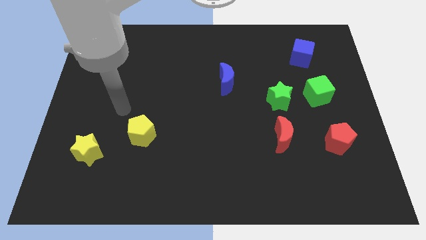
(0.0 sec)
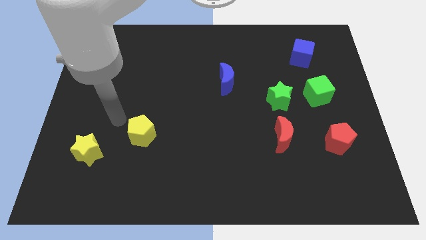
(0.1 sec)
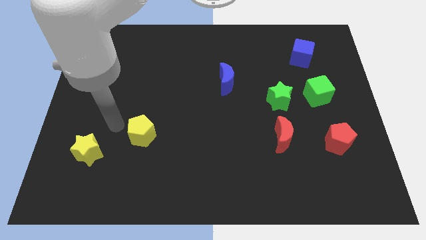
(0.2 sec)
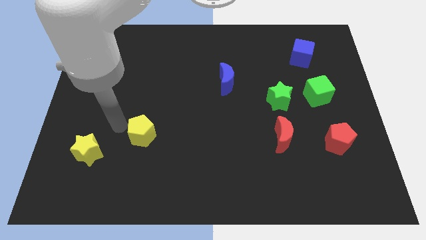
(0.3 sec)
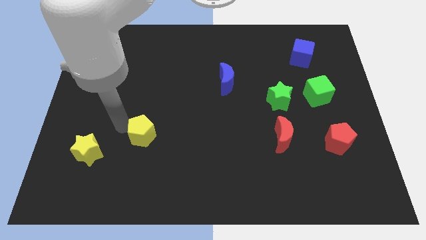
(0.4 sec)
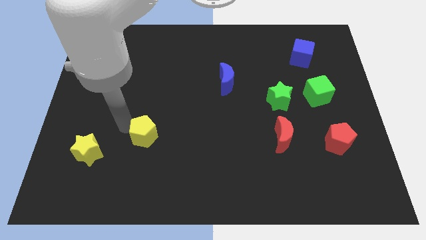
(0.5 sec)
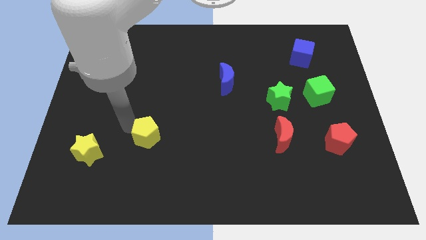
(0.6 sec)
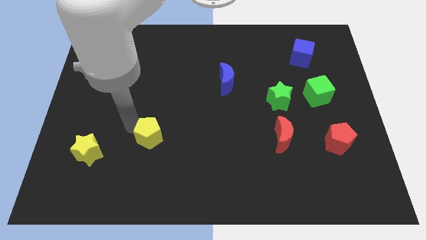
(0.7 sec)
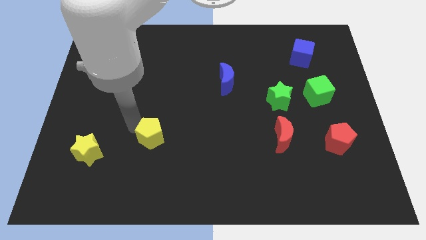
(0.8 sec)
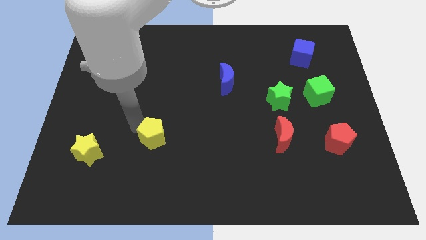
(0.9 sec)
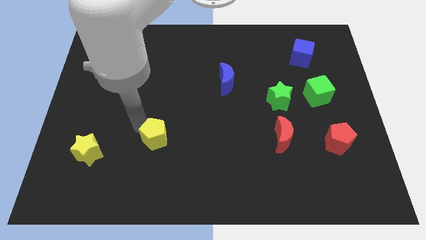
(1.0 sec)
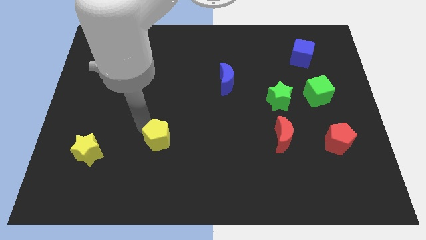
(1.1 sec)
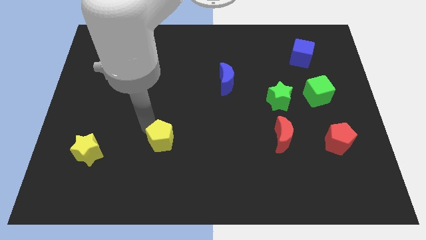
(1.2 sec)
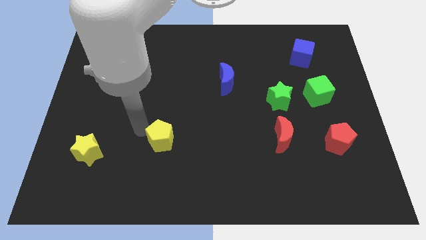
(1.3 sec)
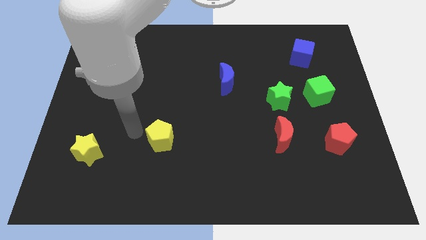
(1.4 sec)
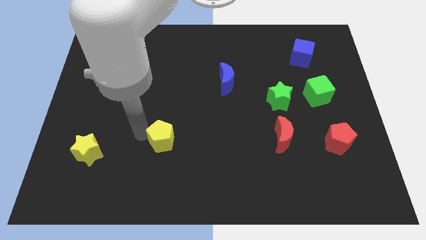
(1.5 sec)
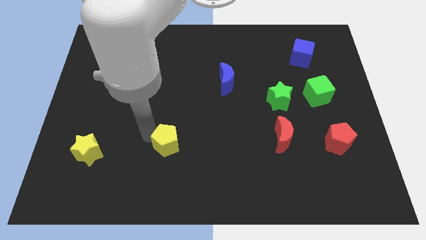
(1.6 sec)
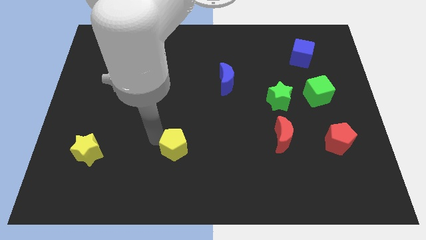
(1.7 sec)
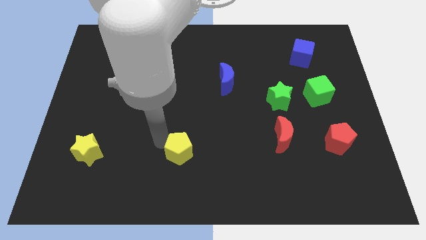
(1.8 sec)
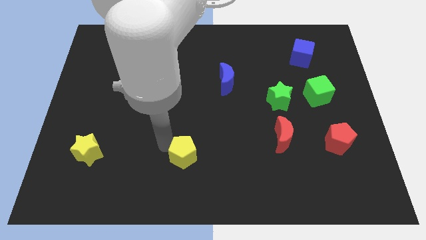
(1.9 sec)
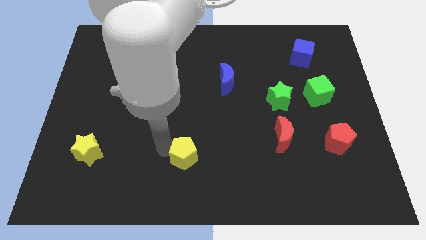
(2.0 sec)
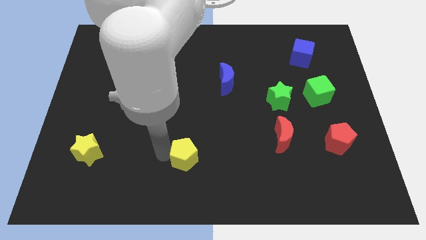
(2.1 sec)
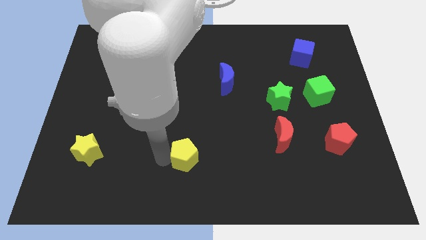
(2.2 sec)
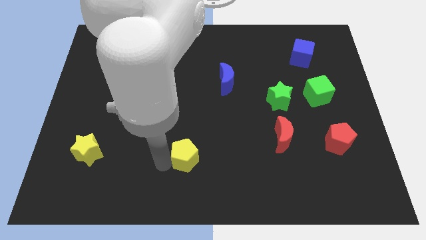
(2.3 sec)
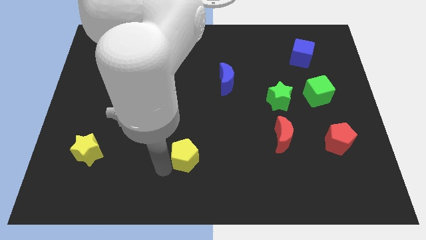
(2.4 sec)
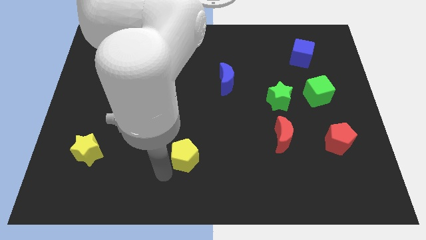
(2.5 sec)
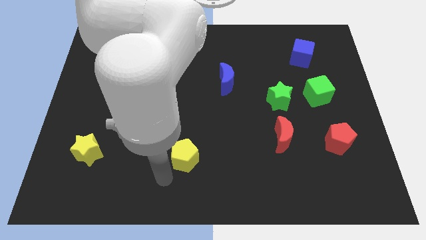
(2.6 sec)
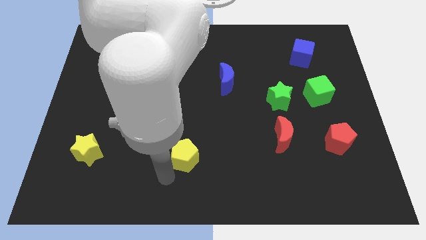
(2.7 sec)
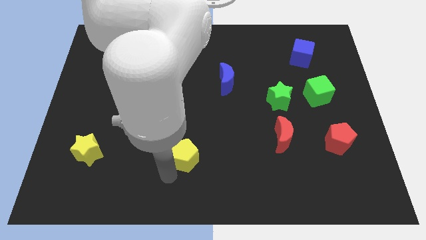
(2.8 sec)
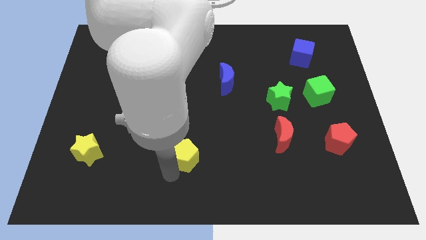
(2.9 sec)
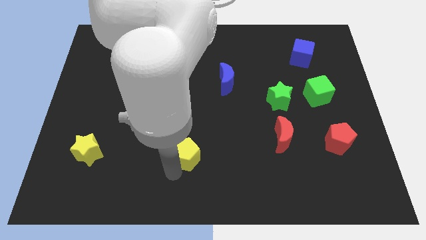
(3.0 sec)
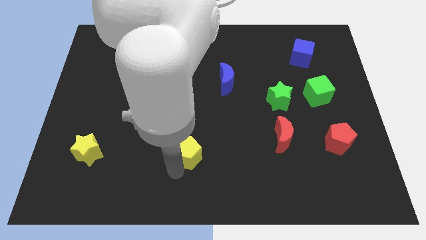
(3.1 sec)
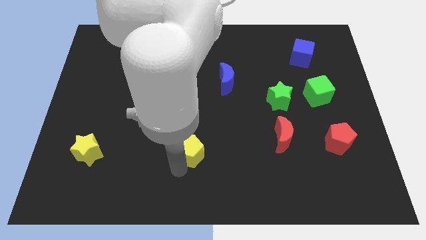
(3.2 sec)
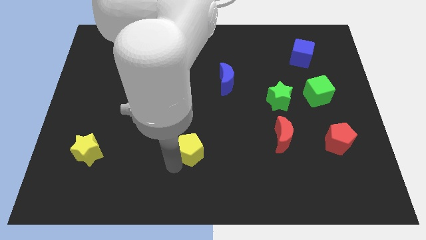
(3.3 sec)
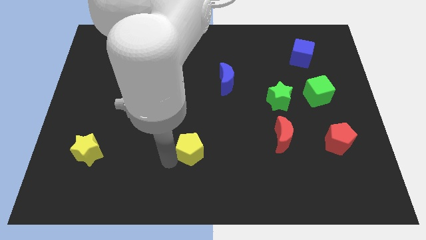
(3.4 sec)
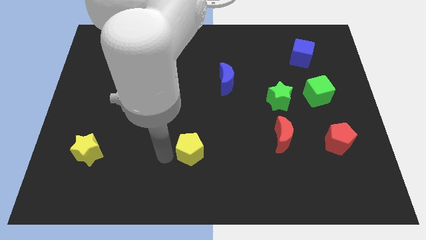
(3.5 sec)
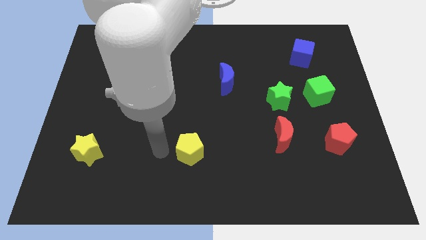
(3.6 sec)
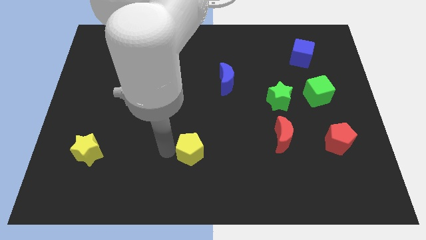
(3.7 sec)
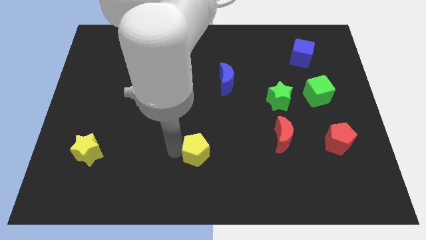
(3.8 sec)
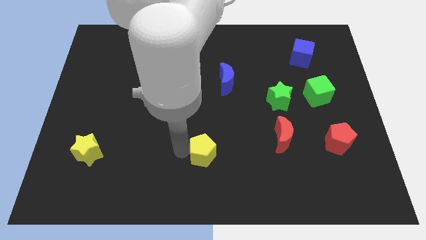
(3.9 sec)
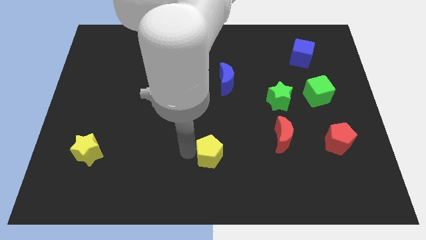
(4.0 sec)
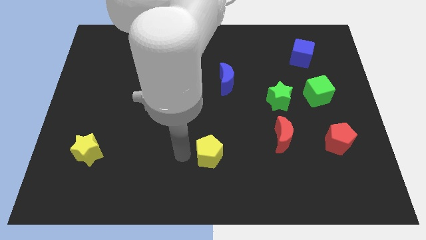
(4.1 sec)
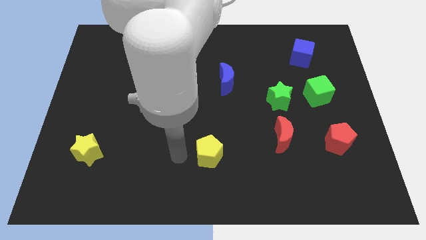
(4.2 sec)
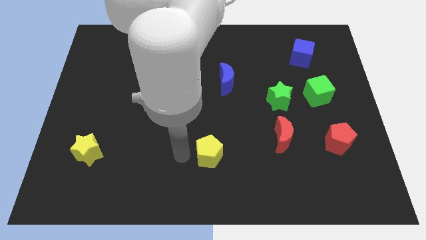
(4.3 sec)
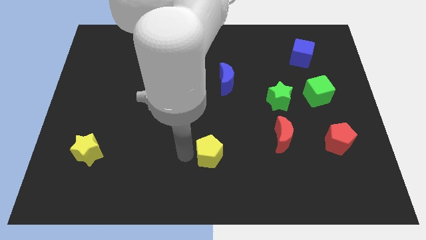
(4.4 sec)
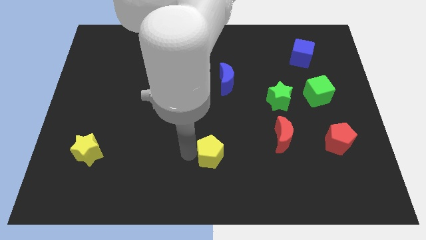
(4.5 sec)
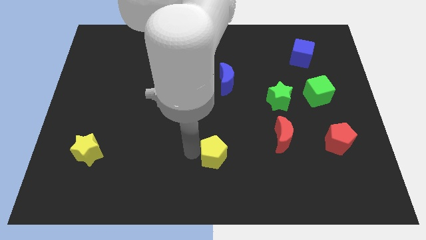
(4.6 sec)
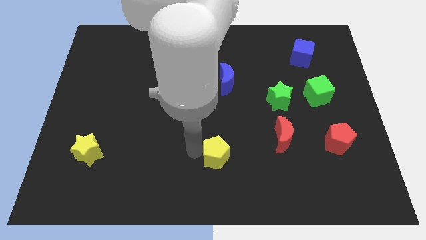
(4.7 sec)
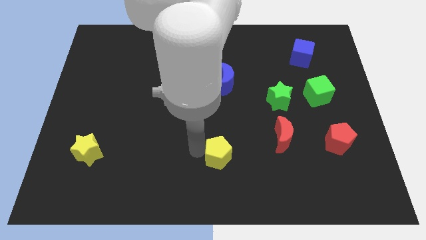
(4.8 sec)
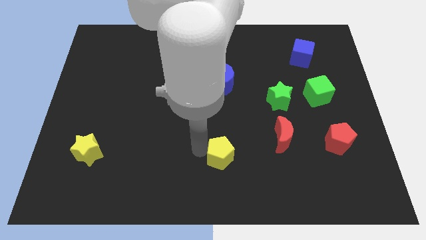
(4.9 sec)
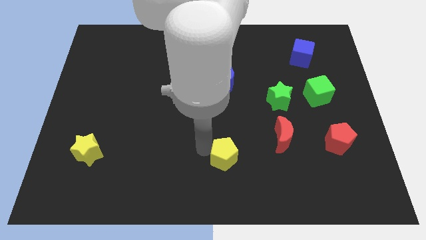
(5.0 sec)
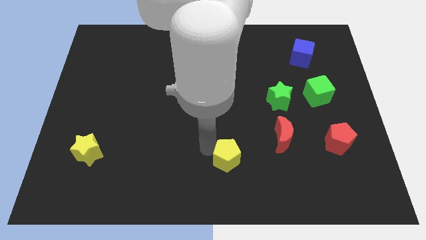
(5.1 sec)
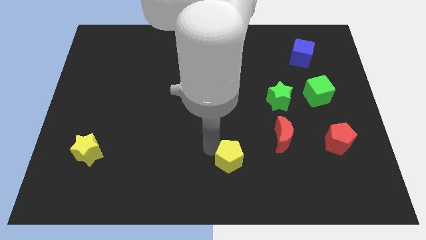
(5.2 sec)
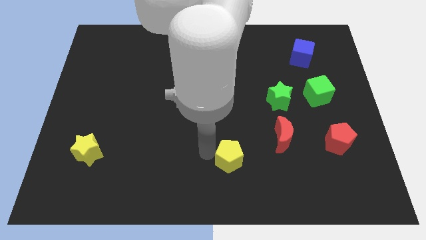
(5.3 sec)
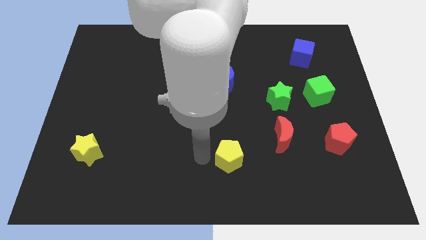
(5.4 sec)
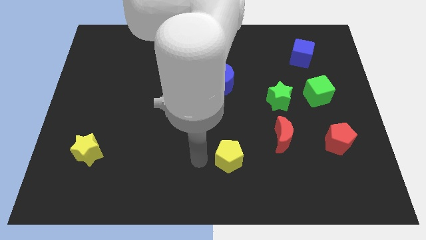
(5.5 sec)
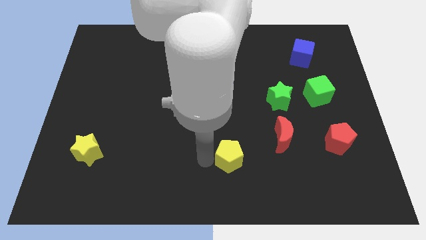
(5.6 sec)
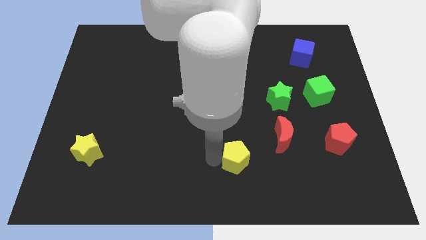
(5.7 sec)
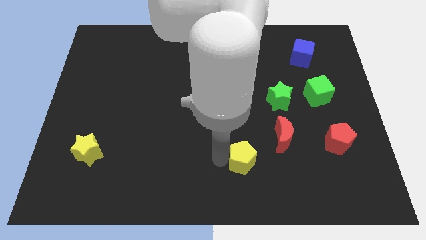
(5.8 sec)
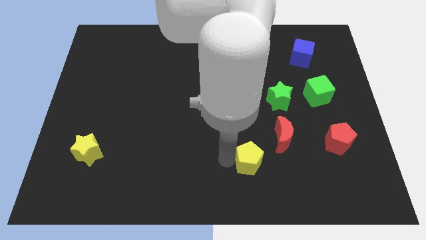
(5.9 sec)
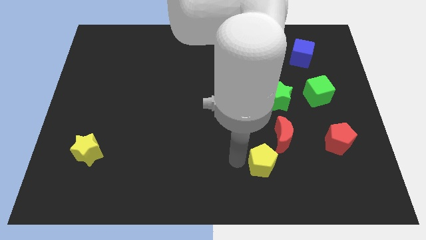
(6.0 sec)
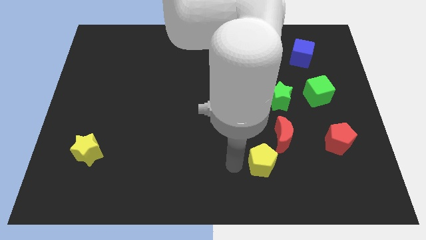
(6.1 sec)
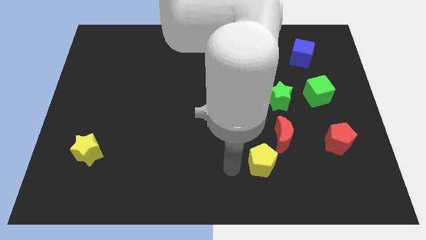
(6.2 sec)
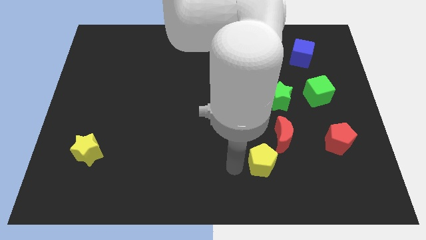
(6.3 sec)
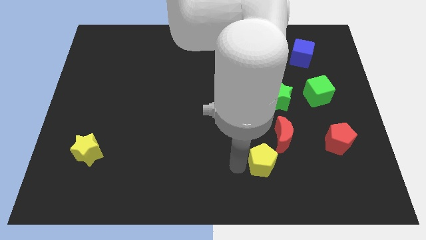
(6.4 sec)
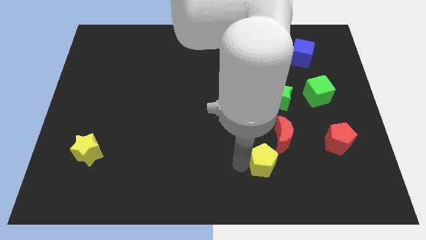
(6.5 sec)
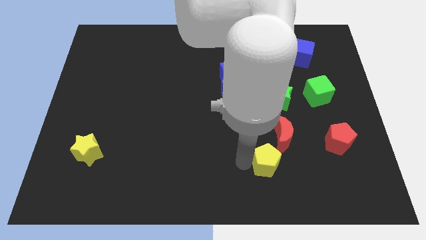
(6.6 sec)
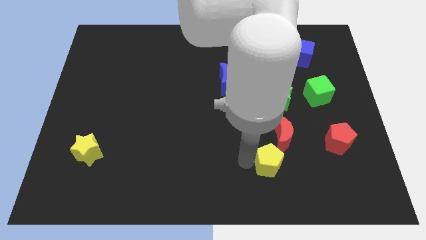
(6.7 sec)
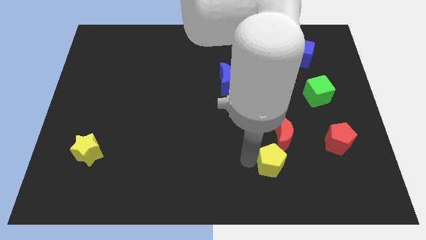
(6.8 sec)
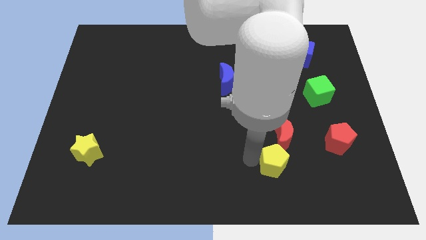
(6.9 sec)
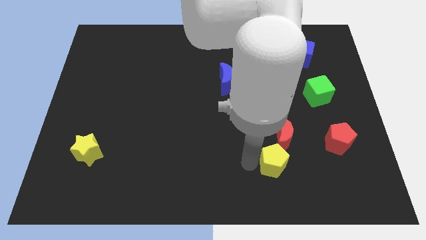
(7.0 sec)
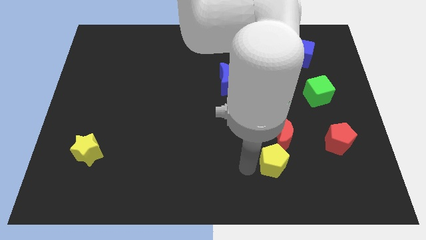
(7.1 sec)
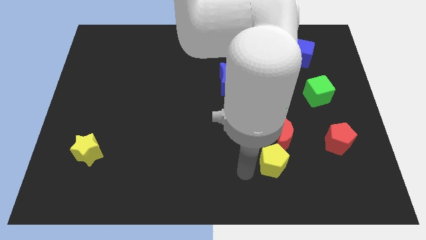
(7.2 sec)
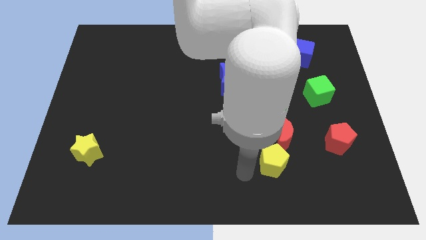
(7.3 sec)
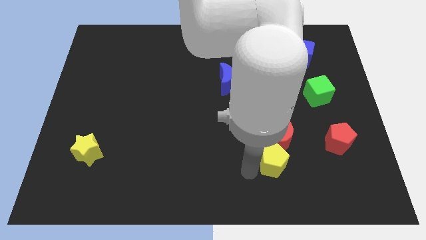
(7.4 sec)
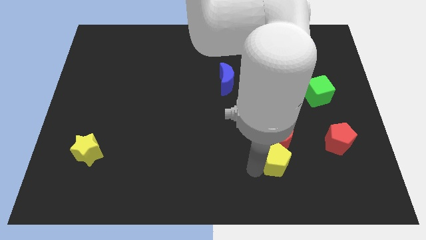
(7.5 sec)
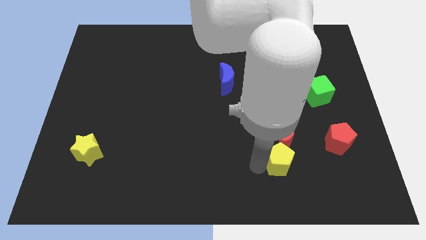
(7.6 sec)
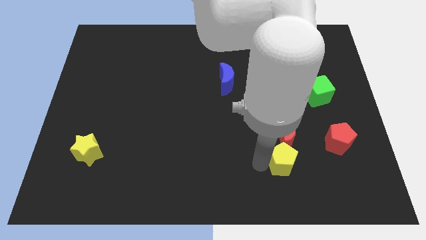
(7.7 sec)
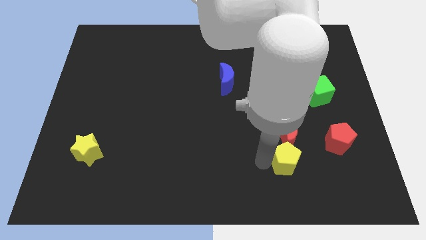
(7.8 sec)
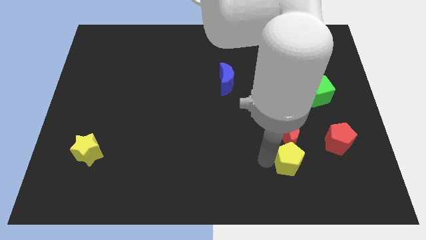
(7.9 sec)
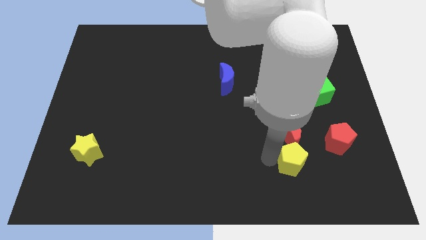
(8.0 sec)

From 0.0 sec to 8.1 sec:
put the yellow pentagon to the bottom right side of the red moon
